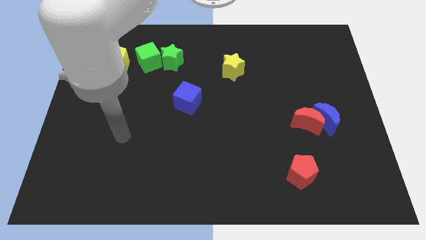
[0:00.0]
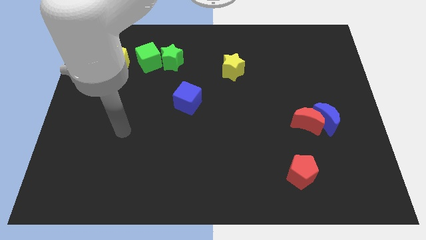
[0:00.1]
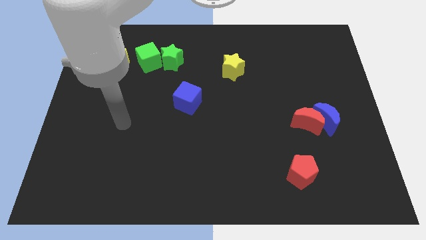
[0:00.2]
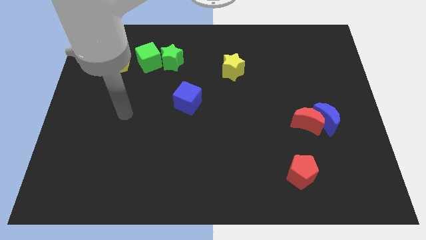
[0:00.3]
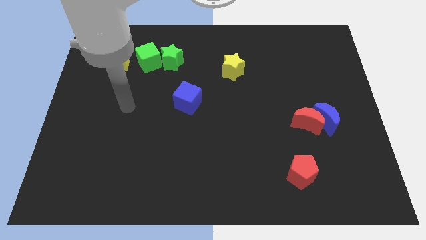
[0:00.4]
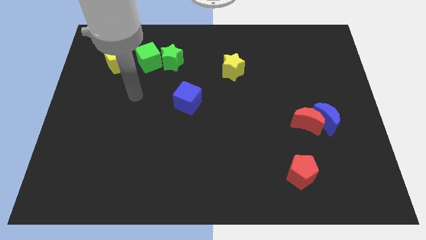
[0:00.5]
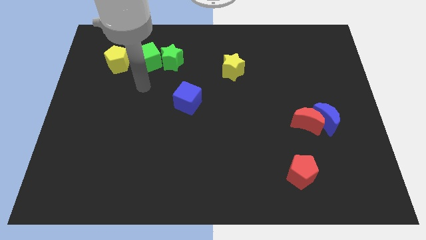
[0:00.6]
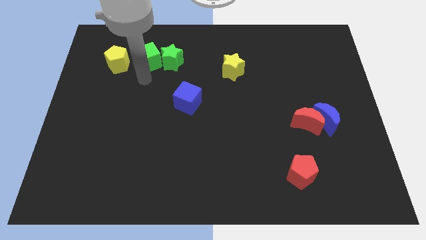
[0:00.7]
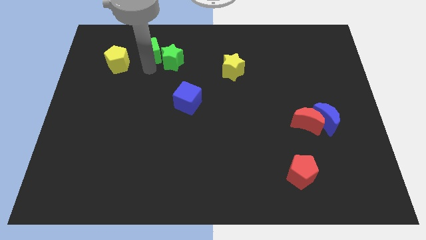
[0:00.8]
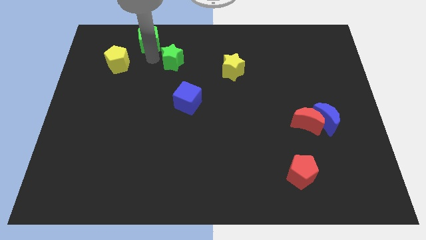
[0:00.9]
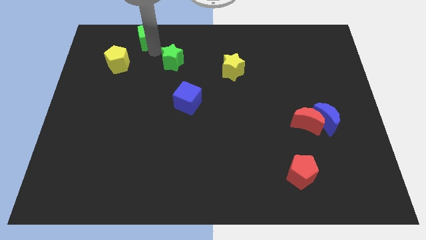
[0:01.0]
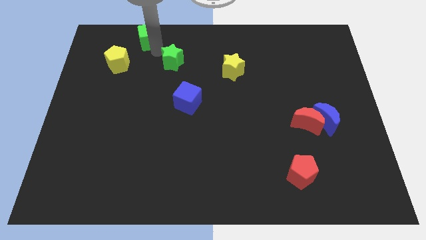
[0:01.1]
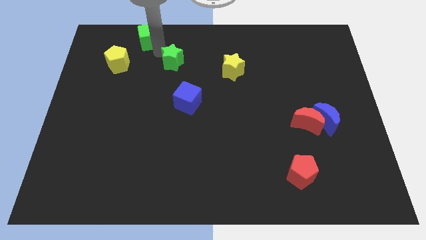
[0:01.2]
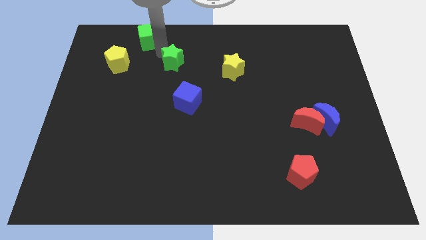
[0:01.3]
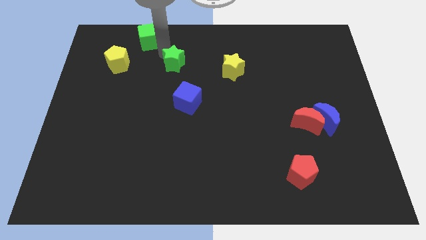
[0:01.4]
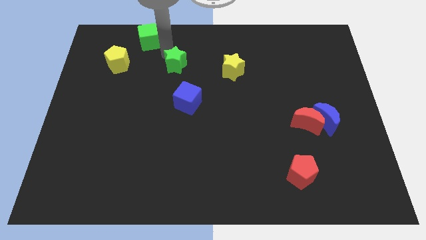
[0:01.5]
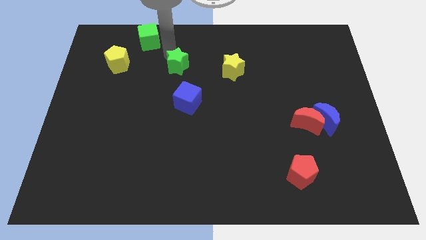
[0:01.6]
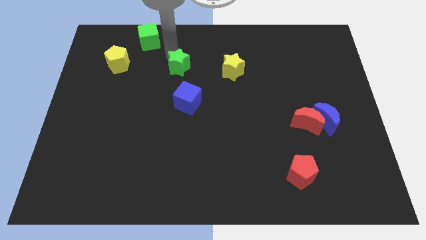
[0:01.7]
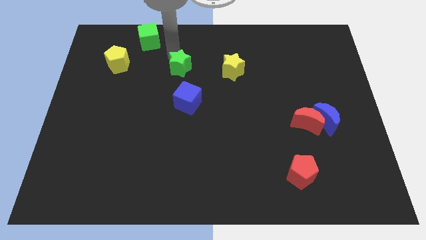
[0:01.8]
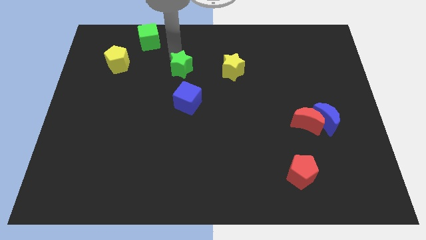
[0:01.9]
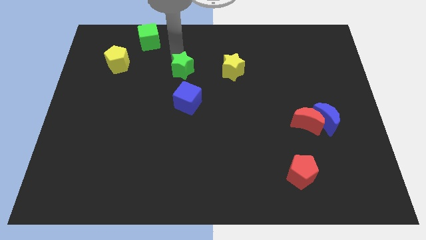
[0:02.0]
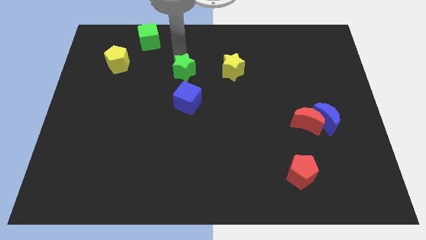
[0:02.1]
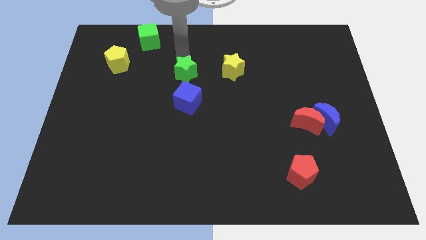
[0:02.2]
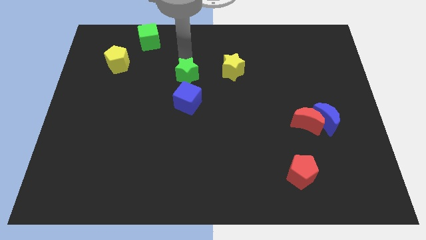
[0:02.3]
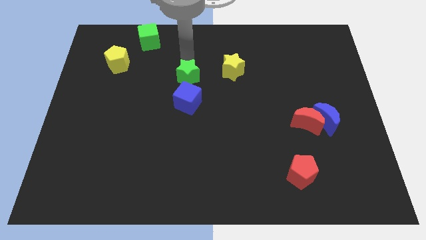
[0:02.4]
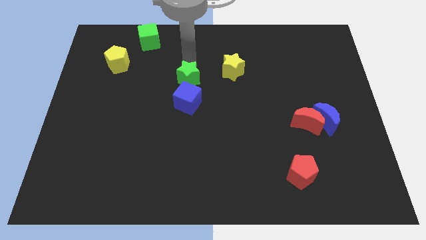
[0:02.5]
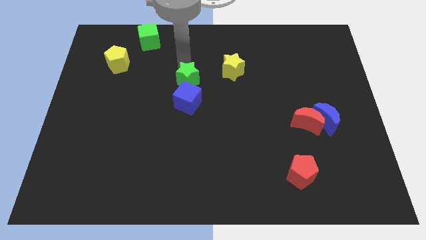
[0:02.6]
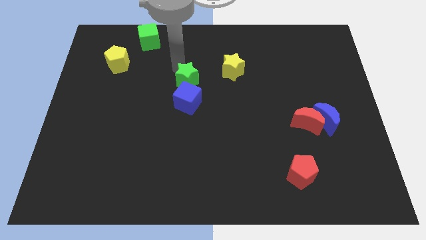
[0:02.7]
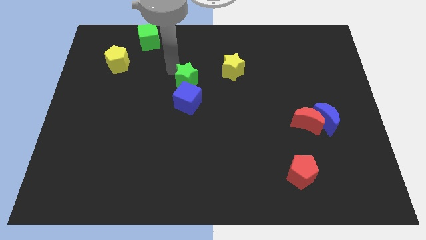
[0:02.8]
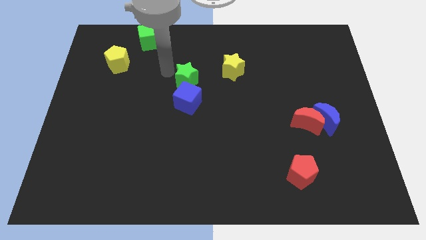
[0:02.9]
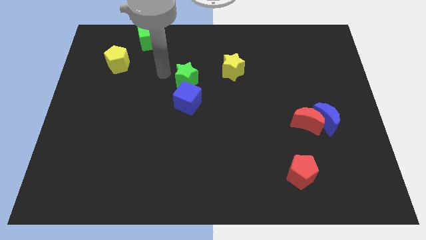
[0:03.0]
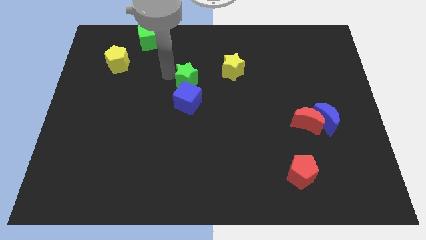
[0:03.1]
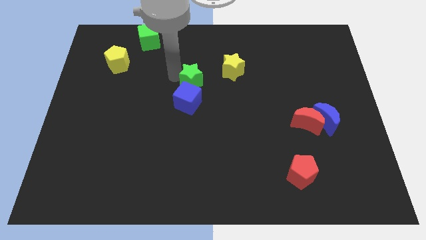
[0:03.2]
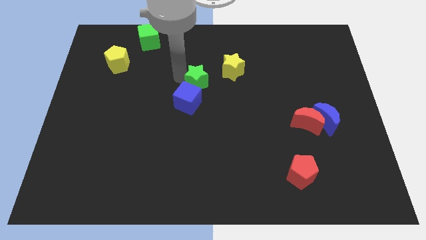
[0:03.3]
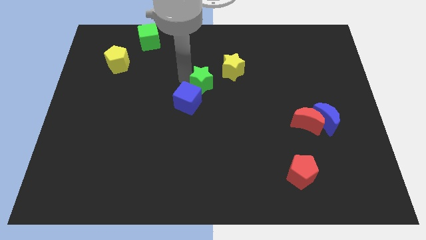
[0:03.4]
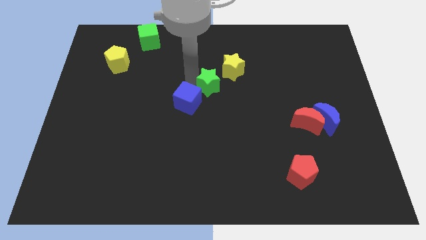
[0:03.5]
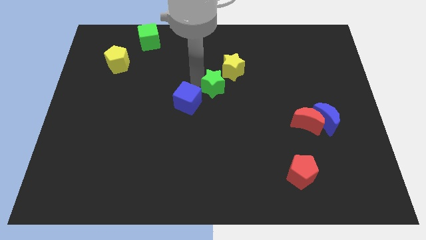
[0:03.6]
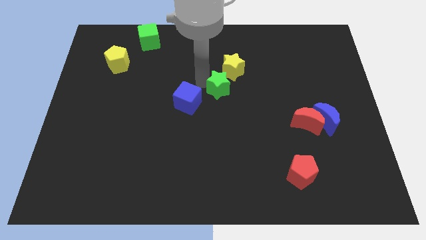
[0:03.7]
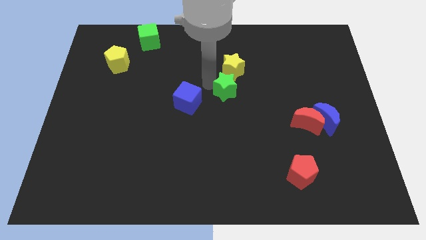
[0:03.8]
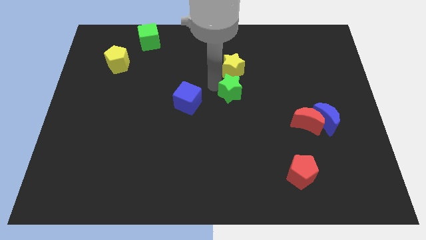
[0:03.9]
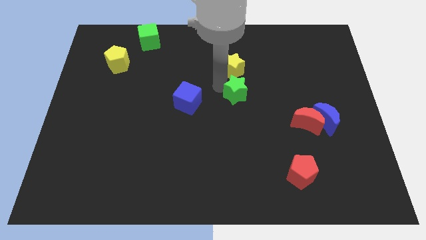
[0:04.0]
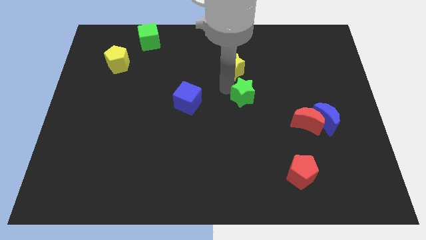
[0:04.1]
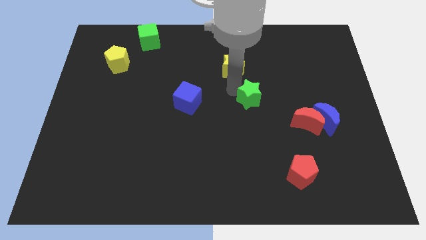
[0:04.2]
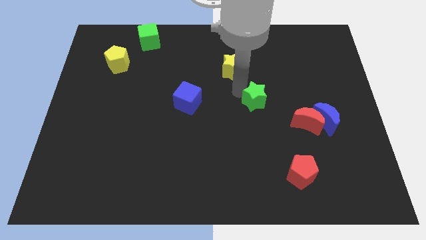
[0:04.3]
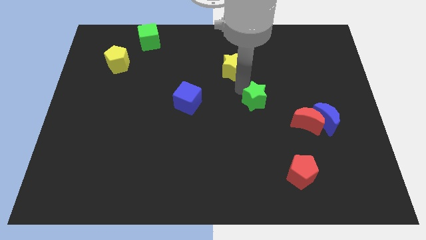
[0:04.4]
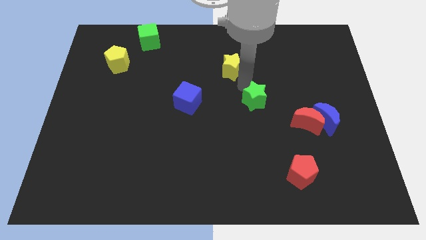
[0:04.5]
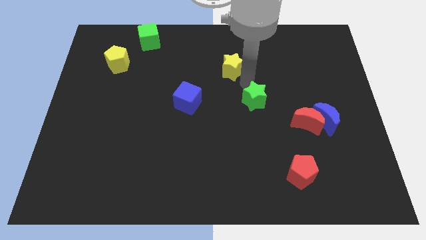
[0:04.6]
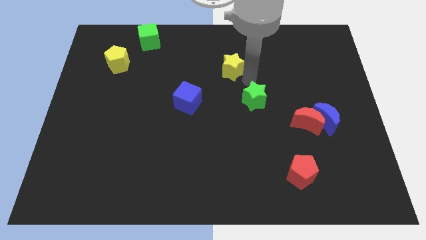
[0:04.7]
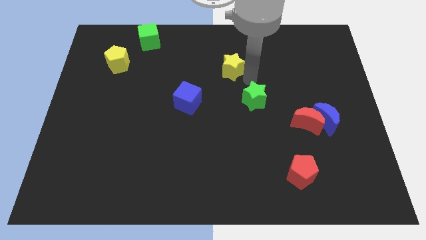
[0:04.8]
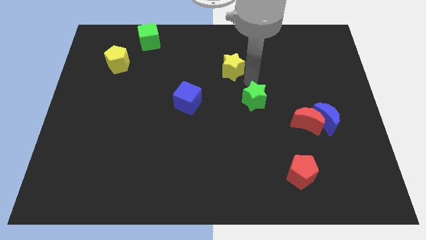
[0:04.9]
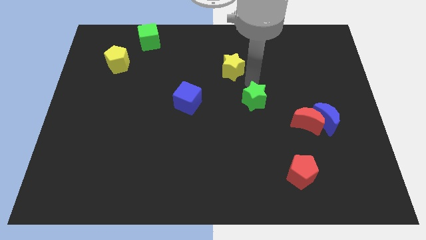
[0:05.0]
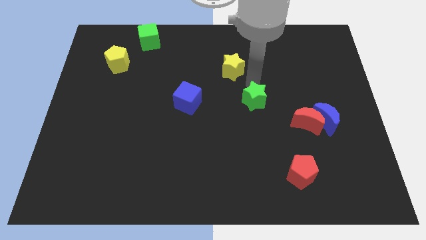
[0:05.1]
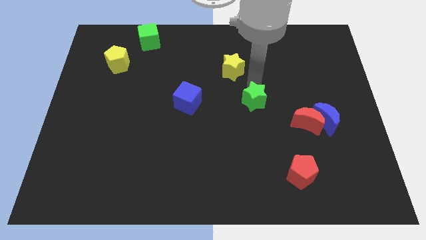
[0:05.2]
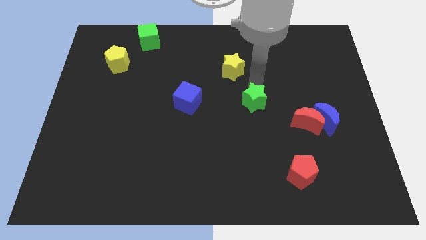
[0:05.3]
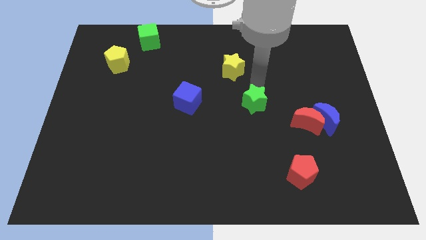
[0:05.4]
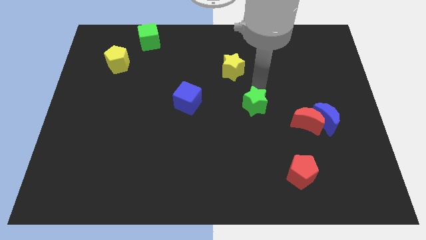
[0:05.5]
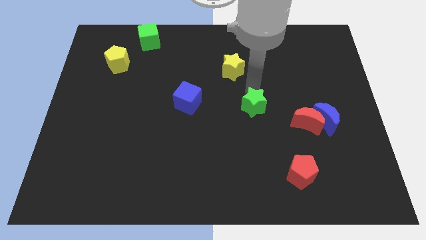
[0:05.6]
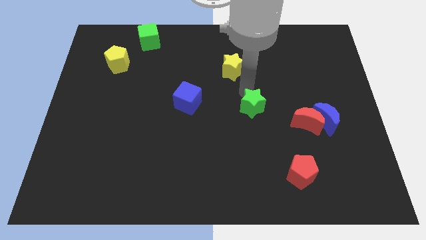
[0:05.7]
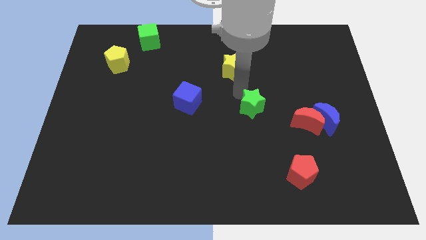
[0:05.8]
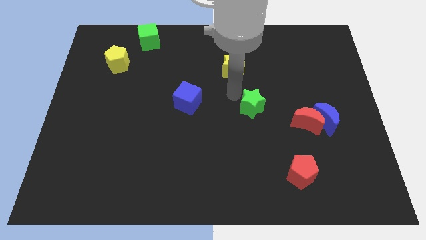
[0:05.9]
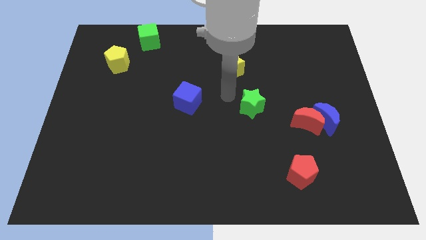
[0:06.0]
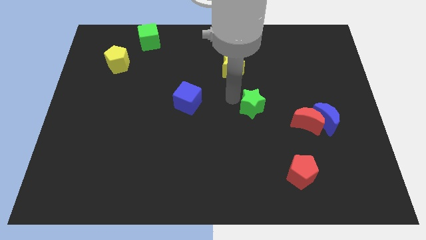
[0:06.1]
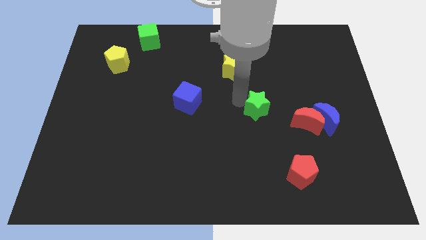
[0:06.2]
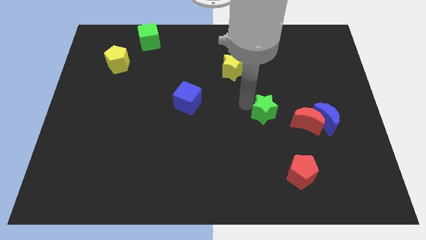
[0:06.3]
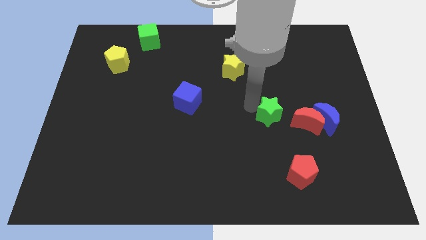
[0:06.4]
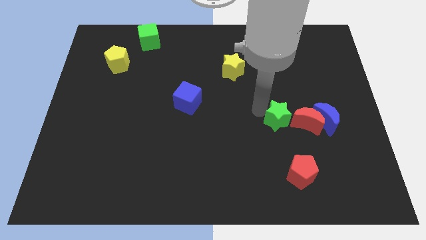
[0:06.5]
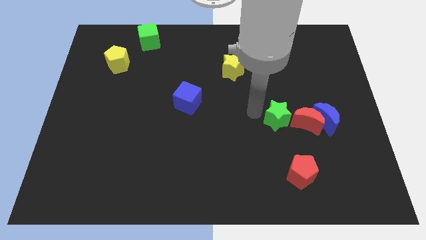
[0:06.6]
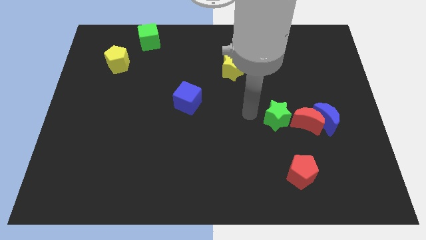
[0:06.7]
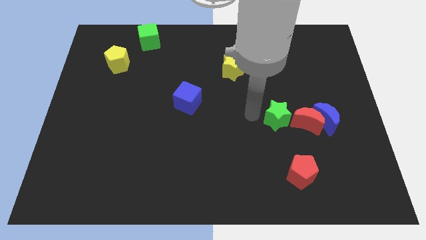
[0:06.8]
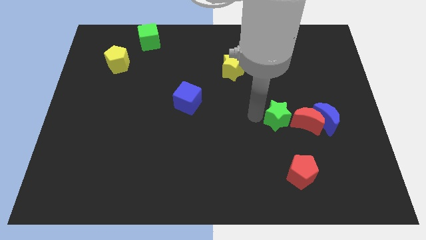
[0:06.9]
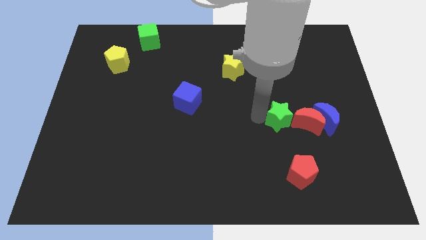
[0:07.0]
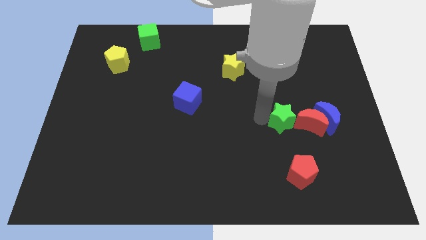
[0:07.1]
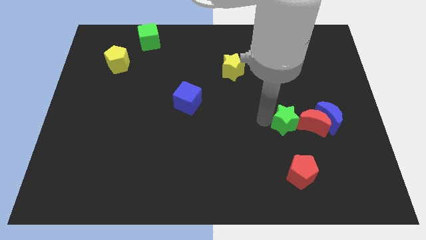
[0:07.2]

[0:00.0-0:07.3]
move the green star to the red moon
